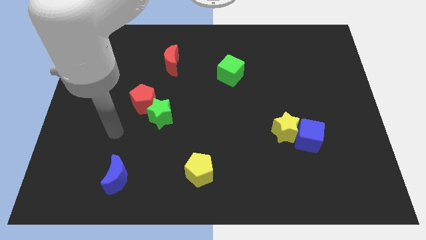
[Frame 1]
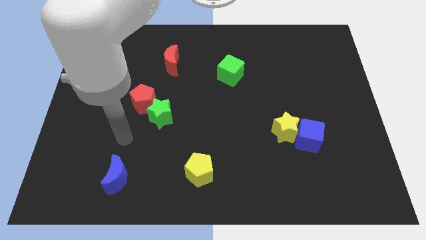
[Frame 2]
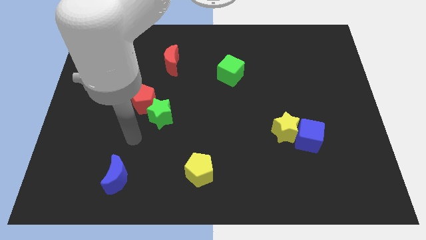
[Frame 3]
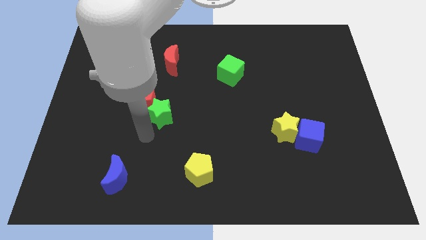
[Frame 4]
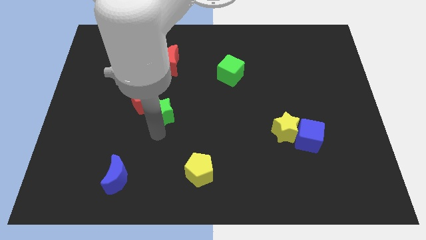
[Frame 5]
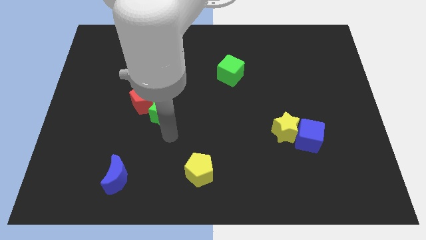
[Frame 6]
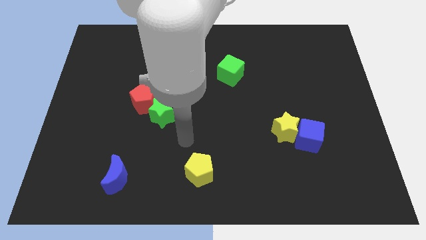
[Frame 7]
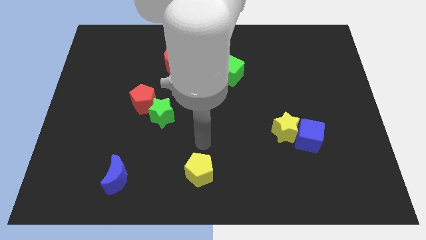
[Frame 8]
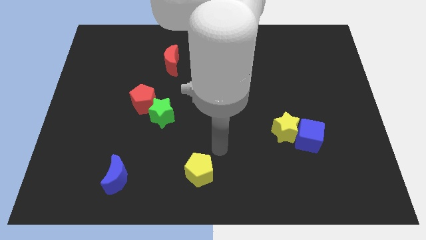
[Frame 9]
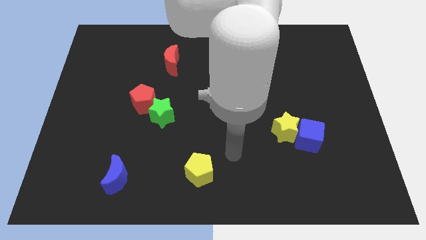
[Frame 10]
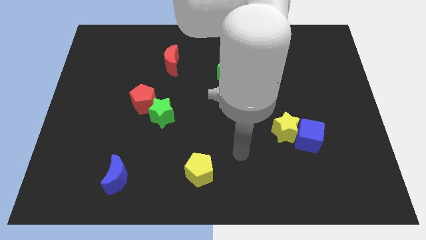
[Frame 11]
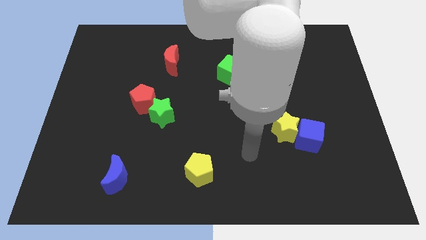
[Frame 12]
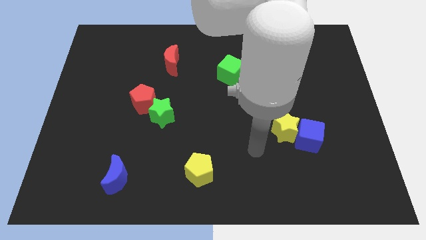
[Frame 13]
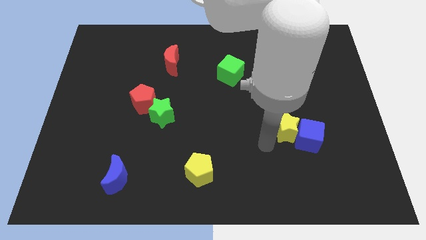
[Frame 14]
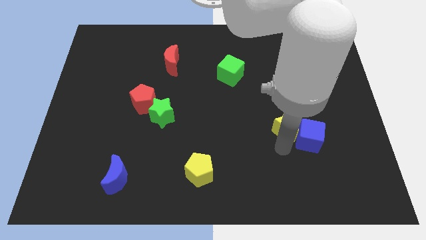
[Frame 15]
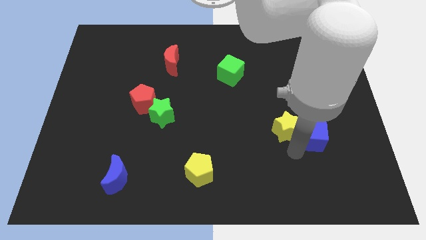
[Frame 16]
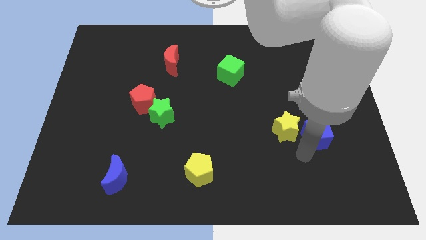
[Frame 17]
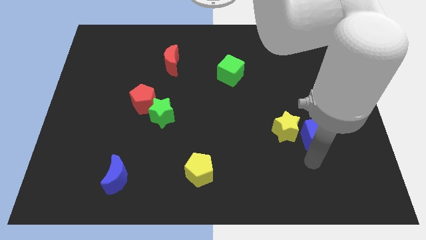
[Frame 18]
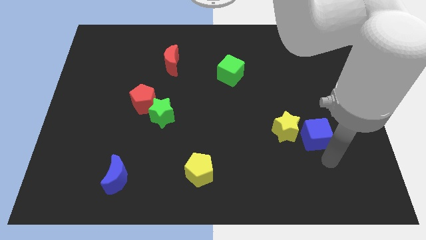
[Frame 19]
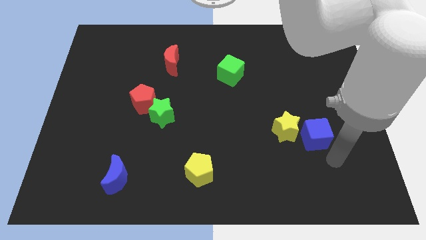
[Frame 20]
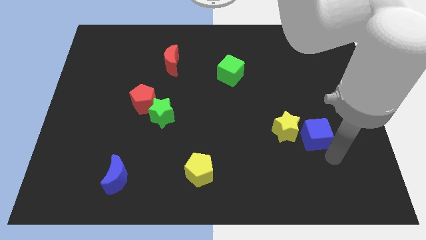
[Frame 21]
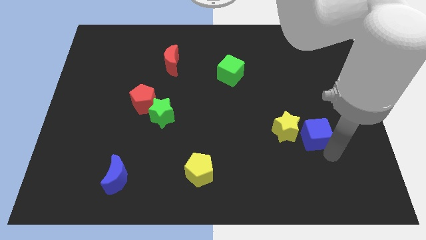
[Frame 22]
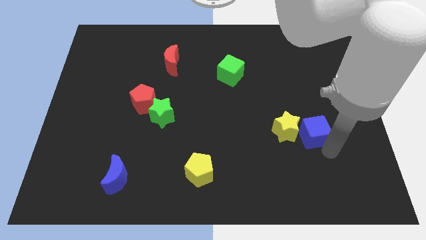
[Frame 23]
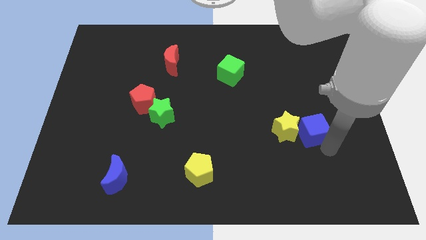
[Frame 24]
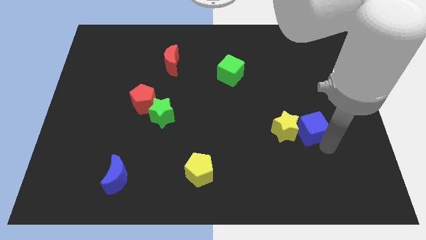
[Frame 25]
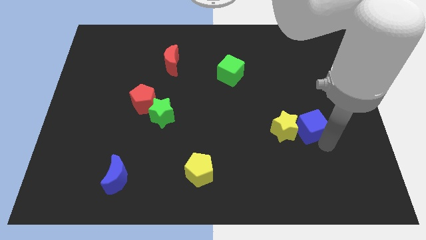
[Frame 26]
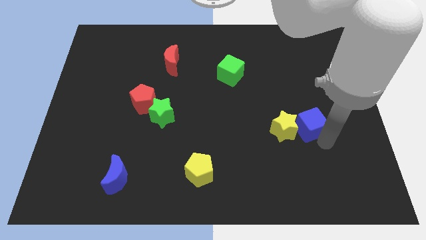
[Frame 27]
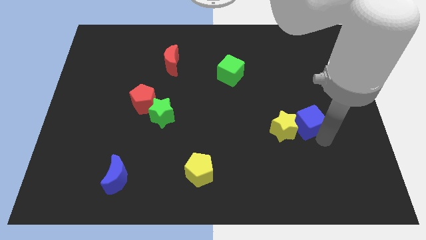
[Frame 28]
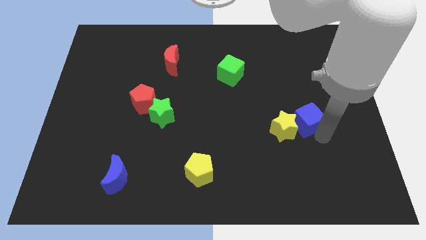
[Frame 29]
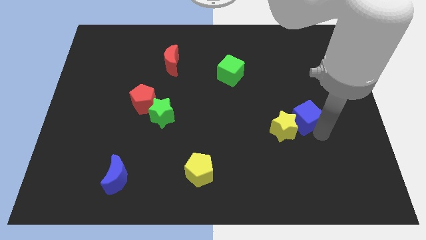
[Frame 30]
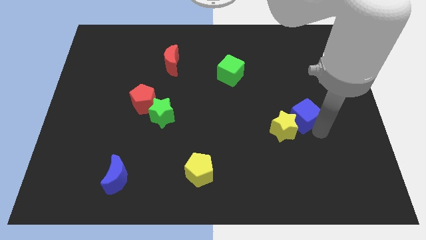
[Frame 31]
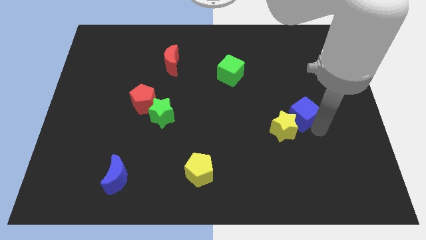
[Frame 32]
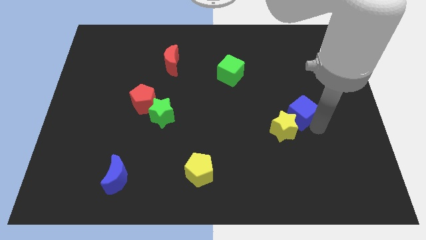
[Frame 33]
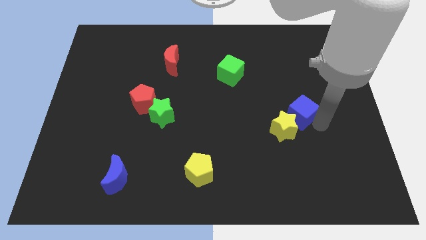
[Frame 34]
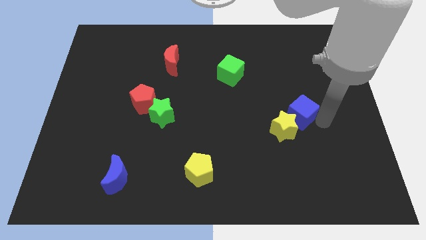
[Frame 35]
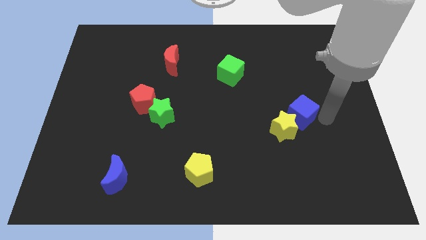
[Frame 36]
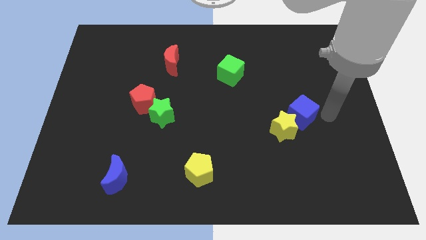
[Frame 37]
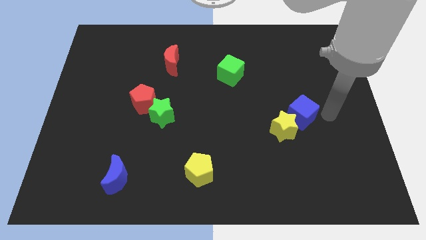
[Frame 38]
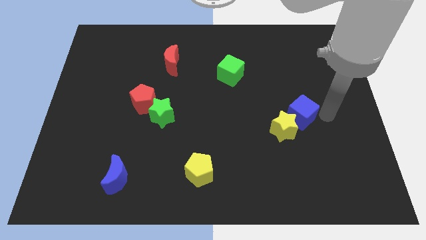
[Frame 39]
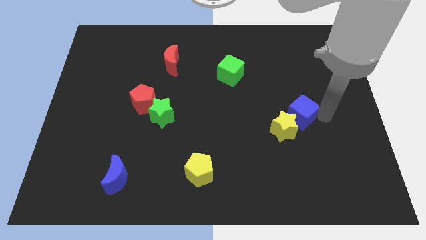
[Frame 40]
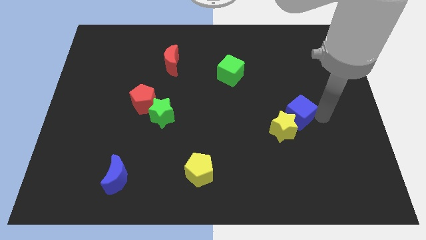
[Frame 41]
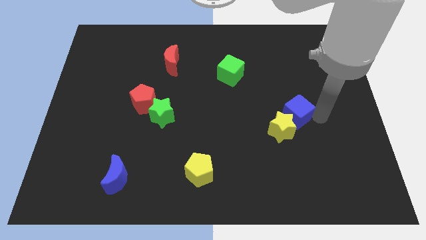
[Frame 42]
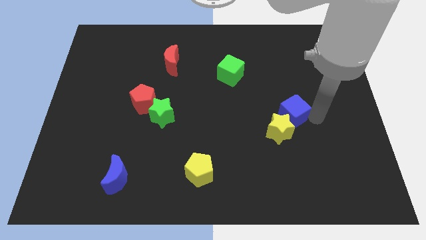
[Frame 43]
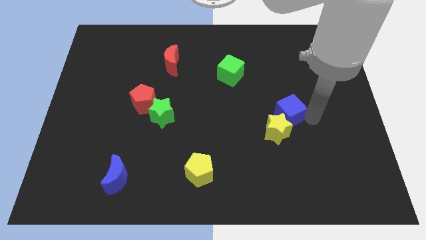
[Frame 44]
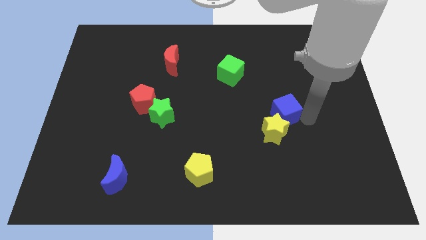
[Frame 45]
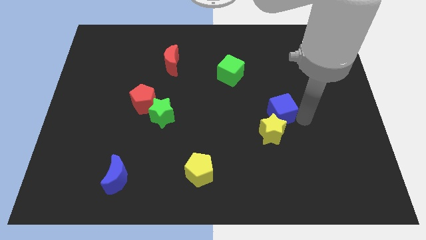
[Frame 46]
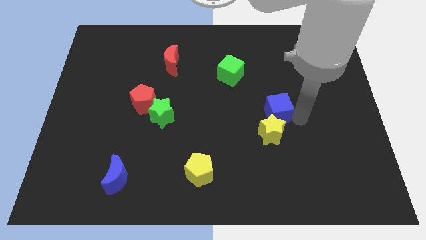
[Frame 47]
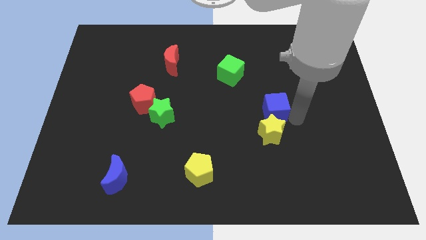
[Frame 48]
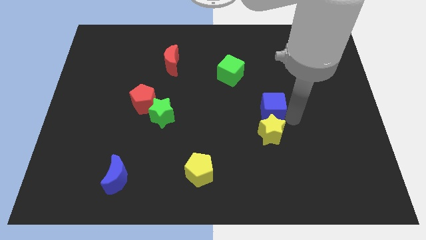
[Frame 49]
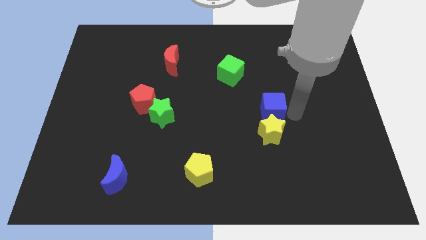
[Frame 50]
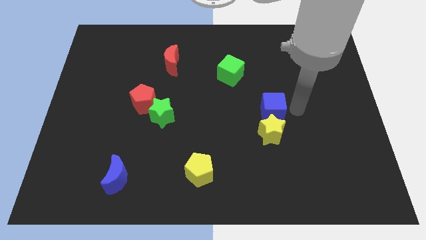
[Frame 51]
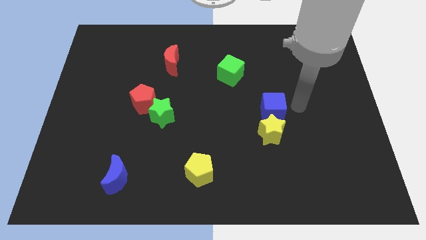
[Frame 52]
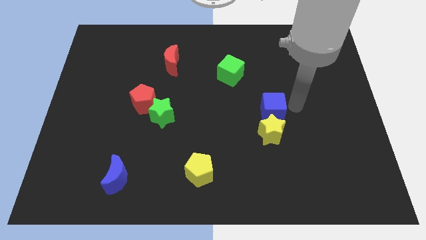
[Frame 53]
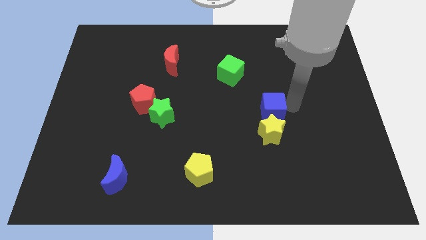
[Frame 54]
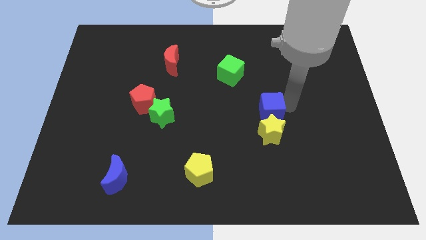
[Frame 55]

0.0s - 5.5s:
put the blue cube to the top left of the yellow star

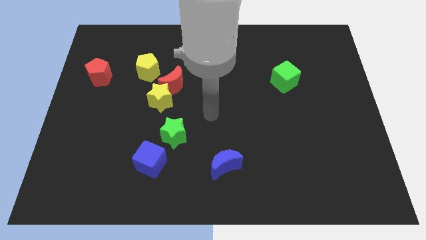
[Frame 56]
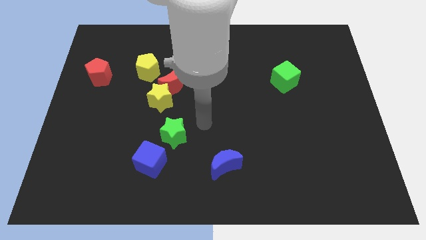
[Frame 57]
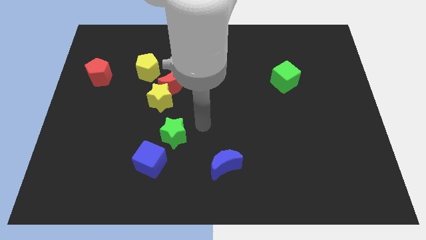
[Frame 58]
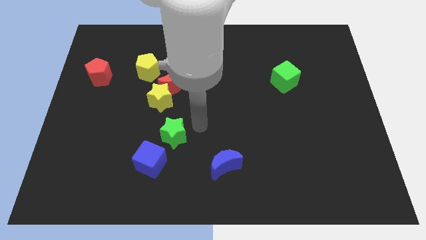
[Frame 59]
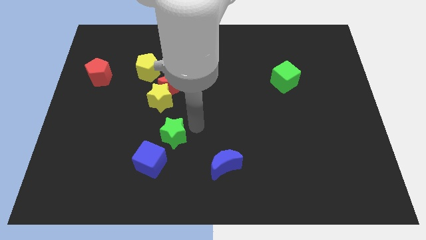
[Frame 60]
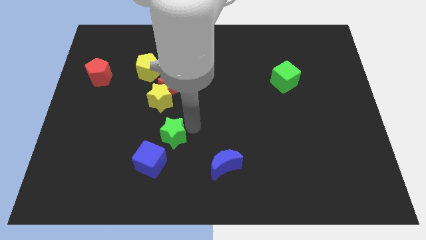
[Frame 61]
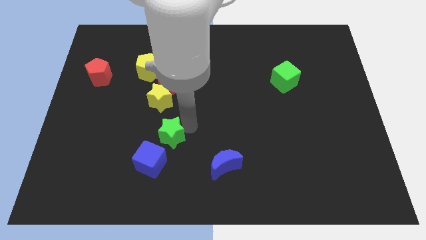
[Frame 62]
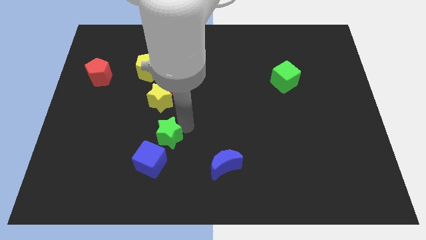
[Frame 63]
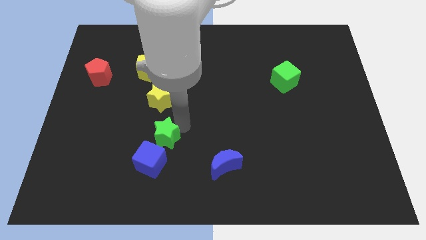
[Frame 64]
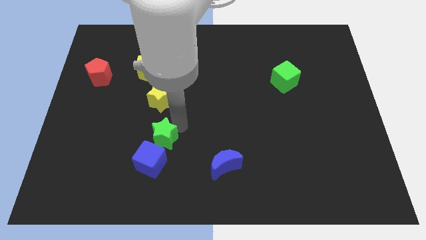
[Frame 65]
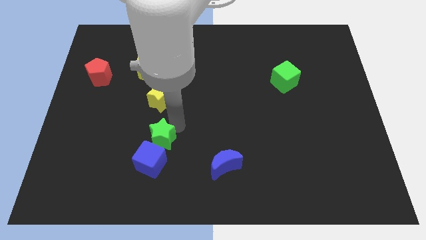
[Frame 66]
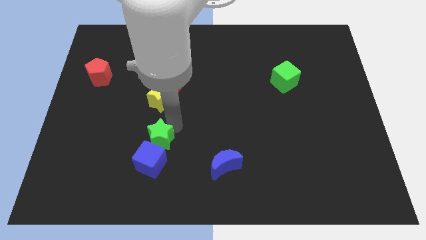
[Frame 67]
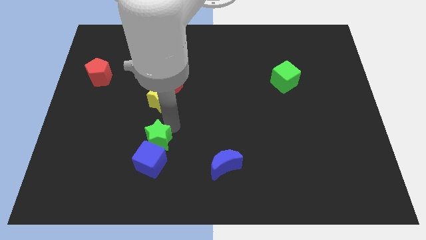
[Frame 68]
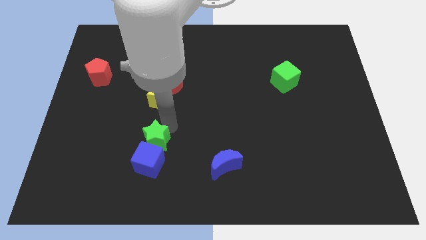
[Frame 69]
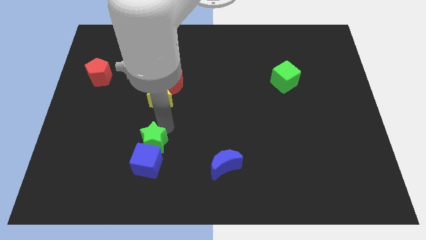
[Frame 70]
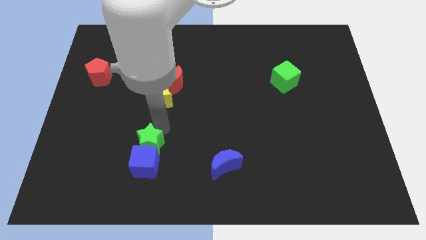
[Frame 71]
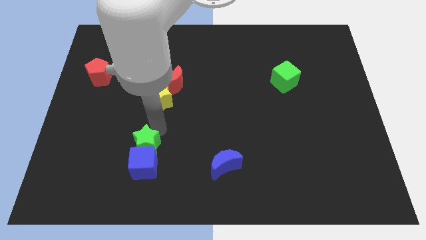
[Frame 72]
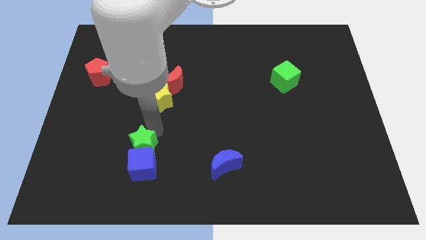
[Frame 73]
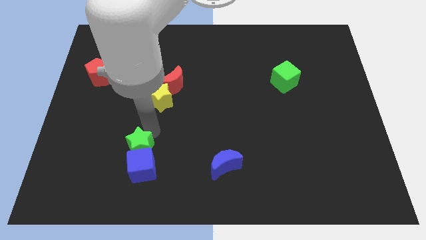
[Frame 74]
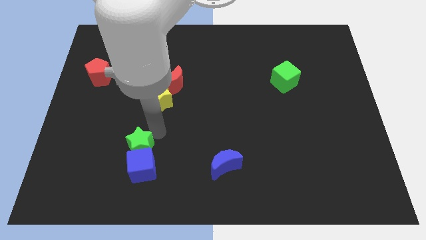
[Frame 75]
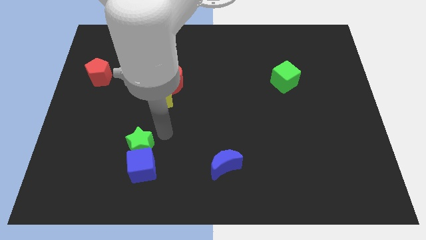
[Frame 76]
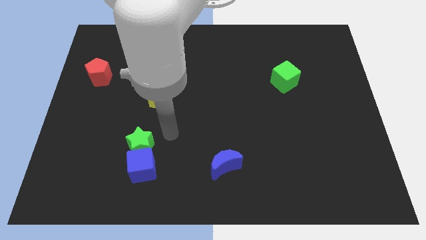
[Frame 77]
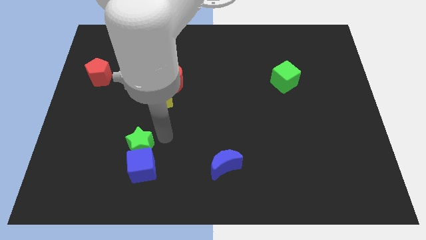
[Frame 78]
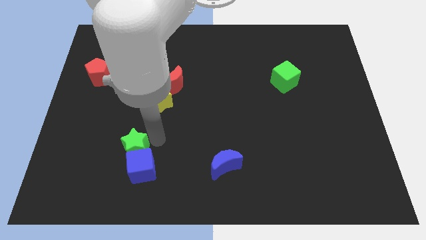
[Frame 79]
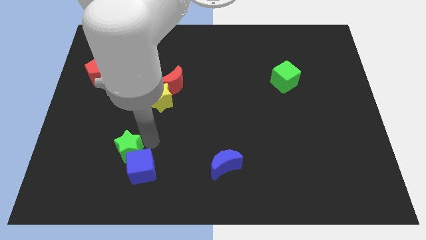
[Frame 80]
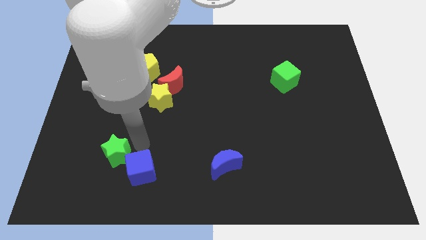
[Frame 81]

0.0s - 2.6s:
move the green star to the left of the blue cube
